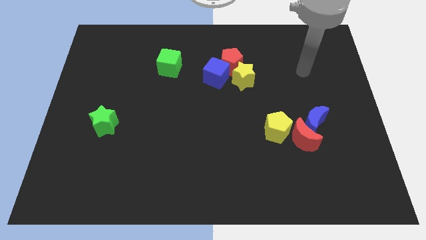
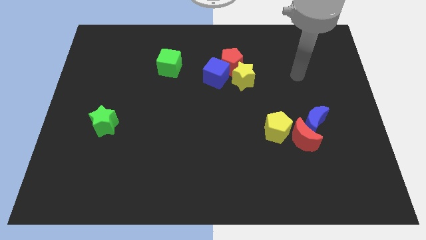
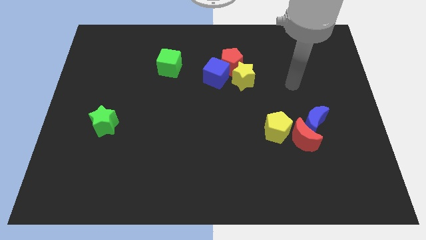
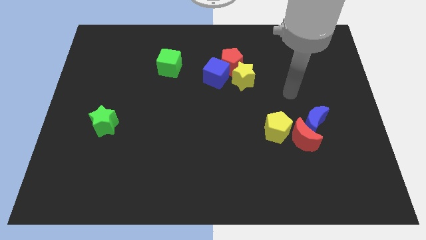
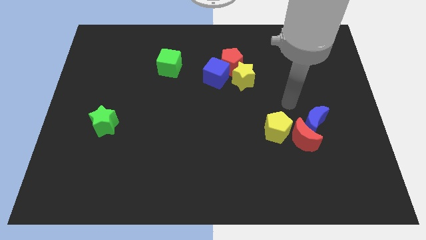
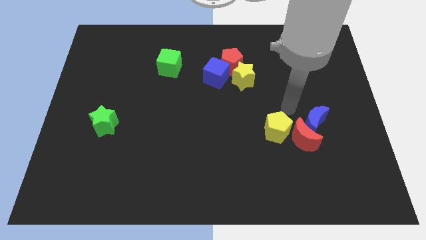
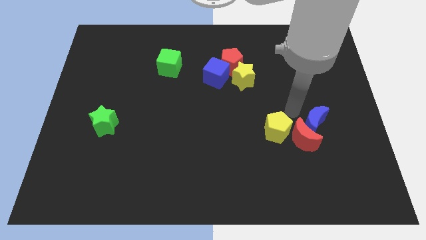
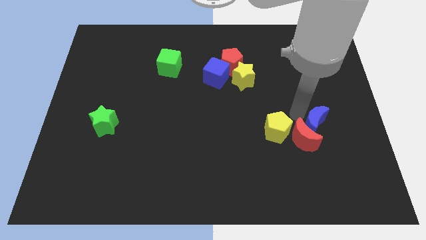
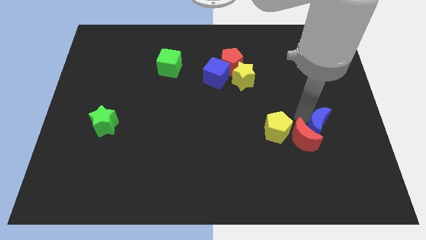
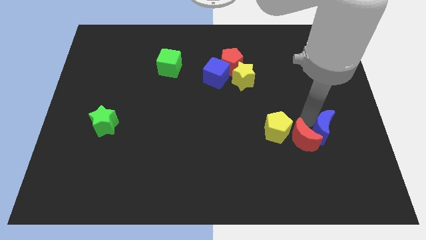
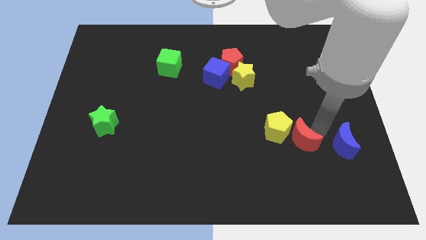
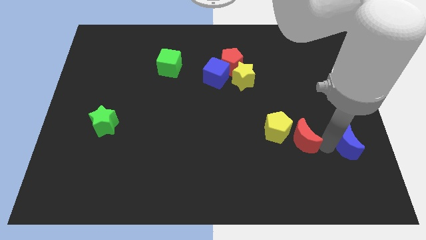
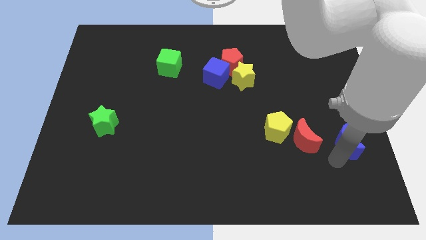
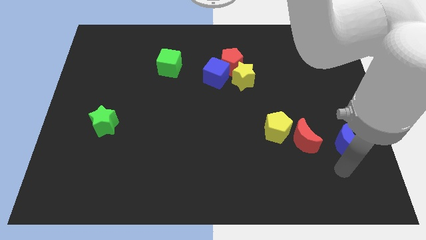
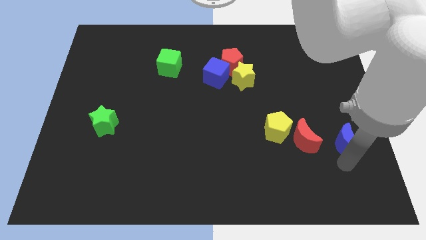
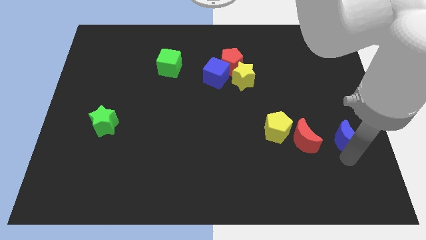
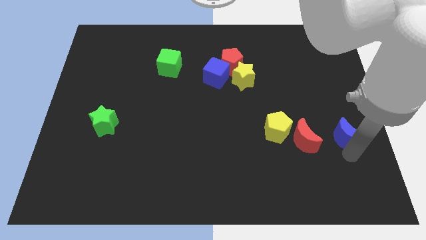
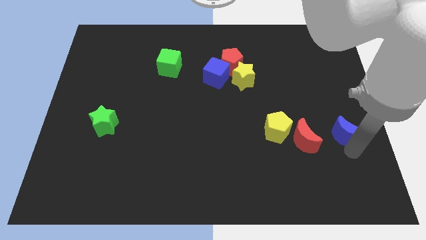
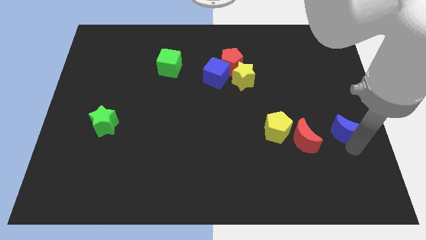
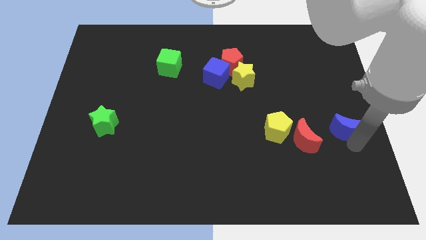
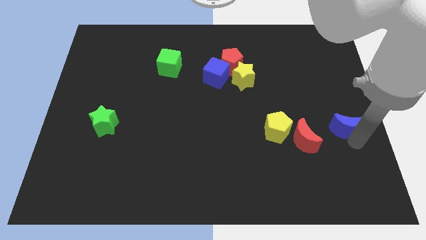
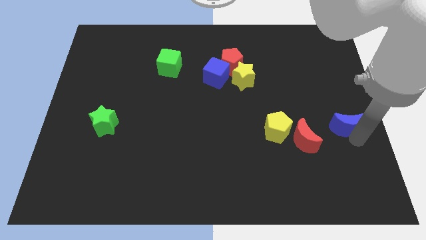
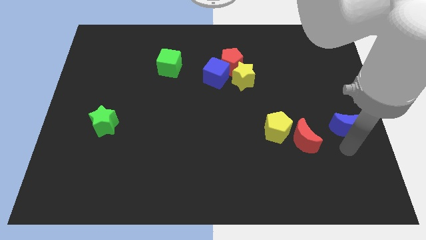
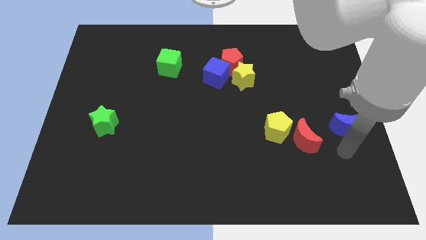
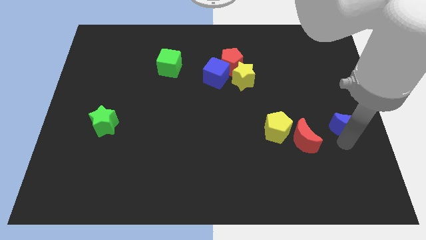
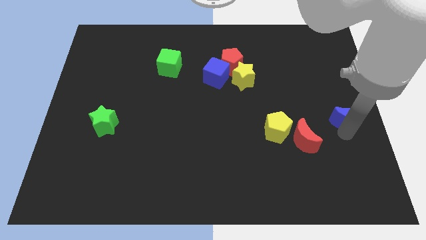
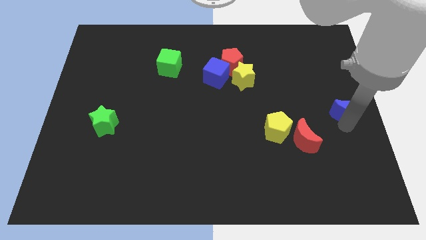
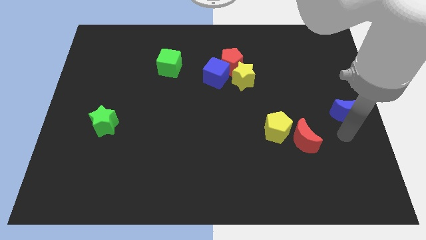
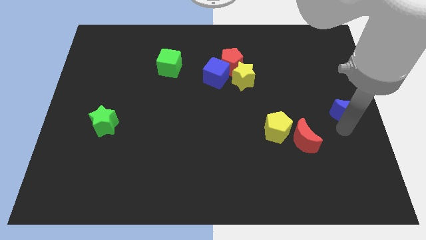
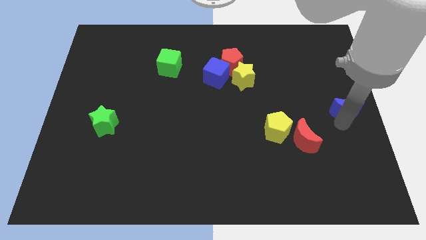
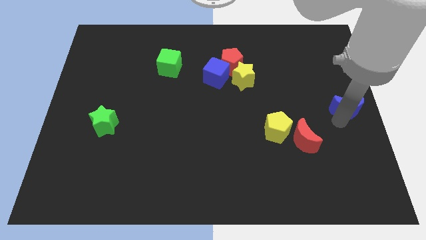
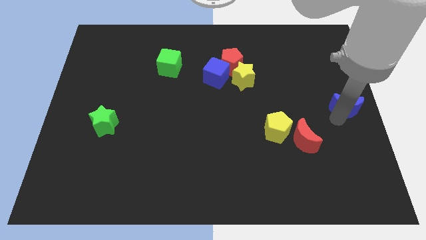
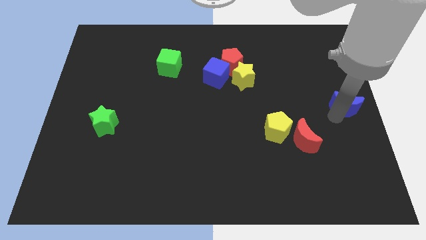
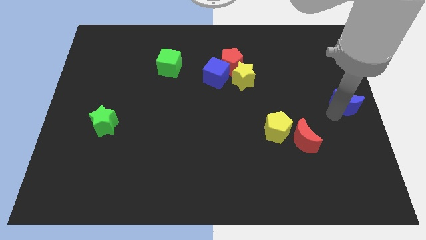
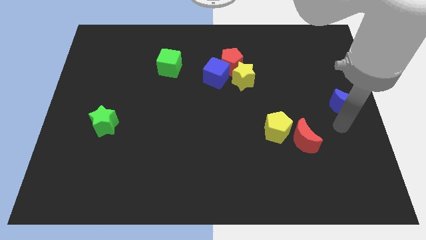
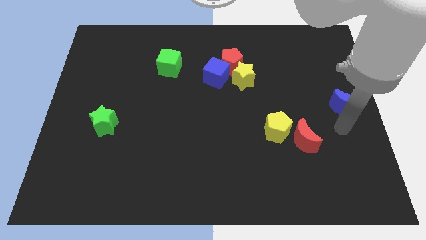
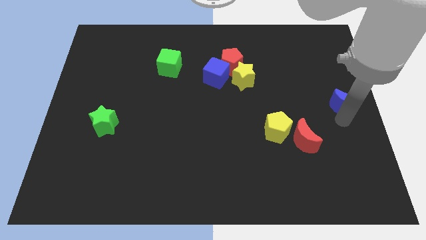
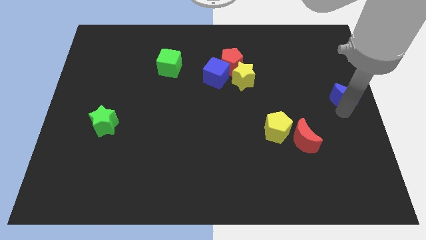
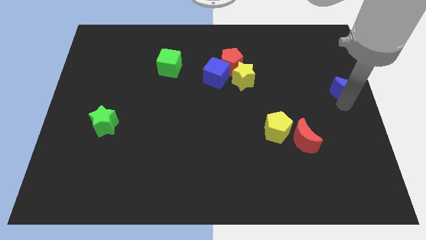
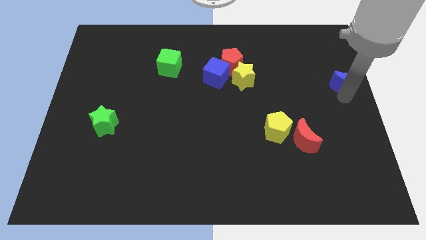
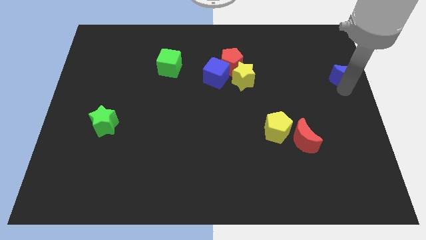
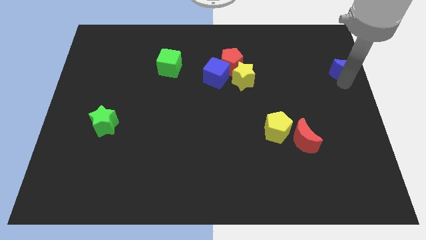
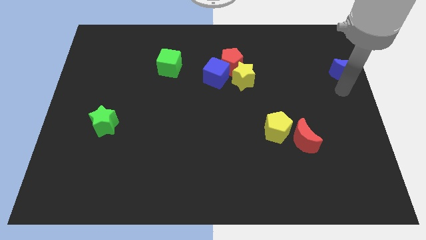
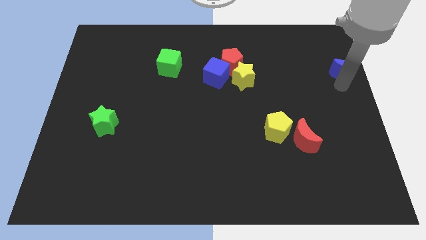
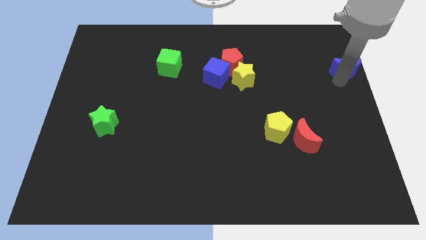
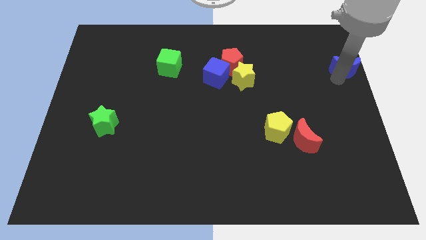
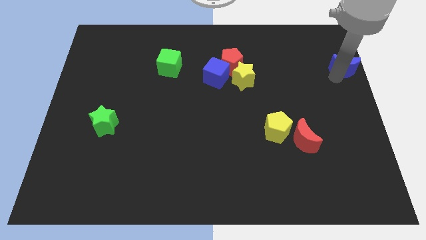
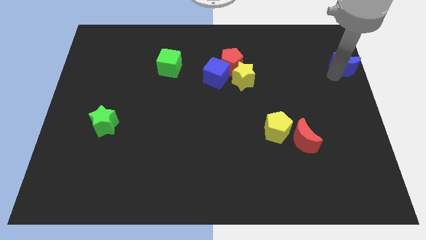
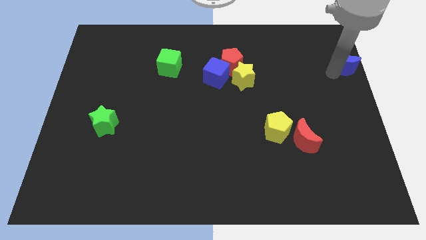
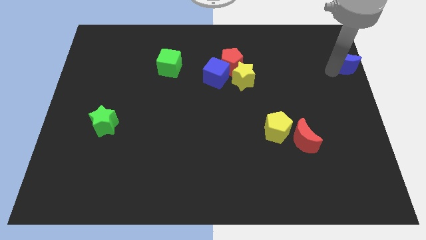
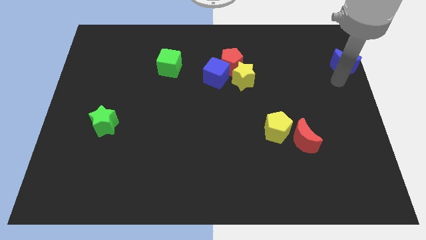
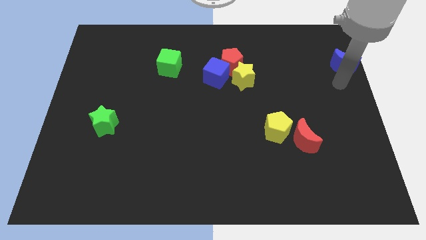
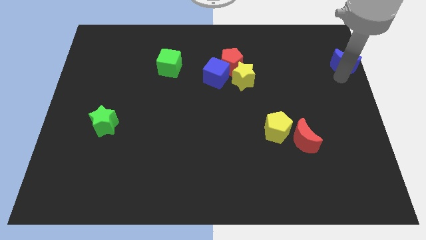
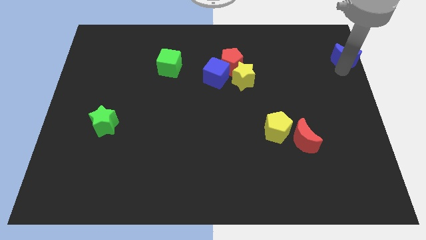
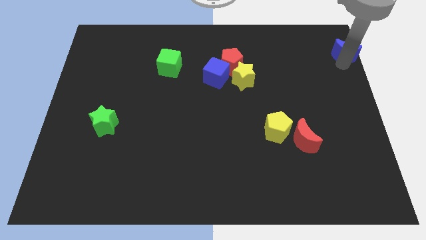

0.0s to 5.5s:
move the blue moon to the top right of the board

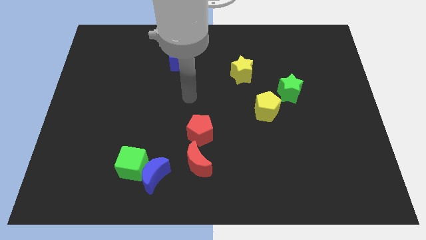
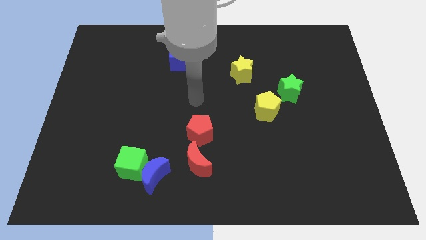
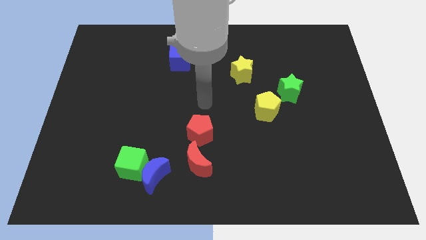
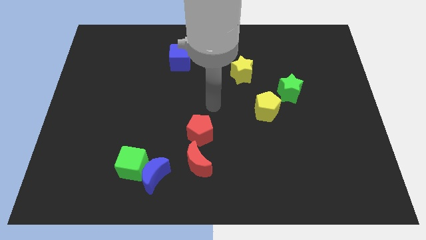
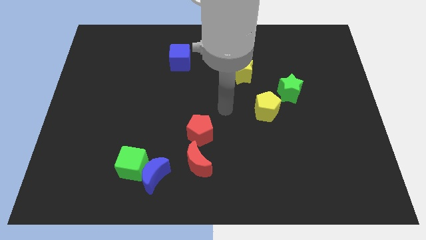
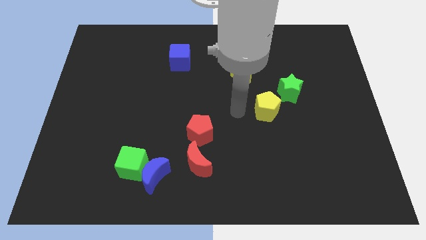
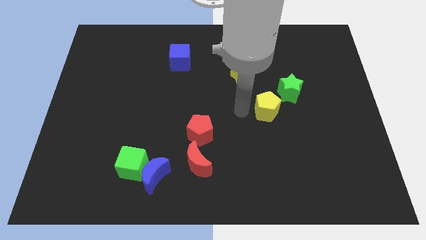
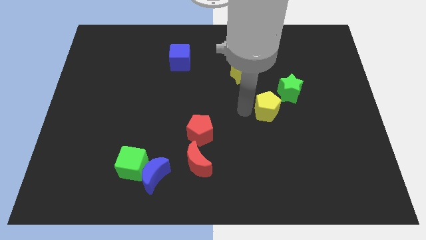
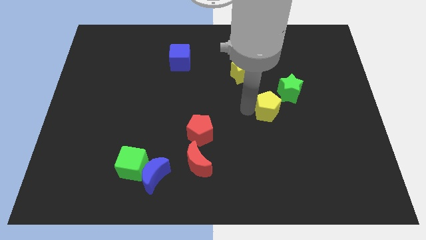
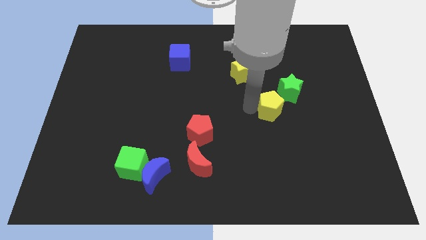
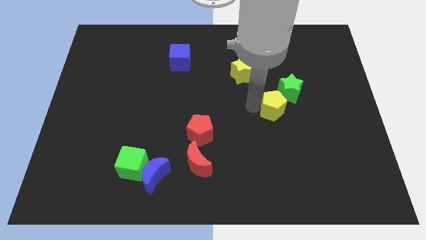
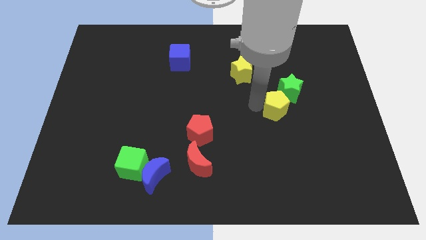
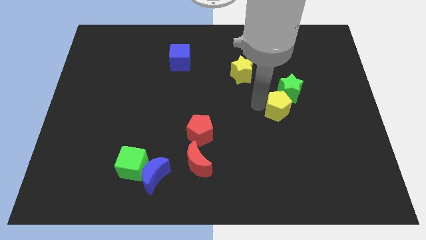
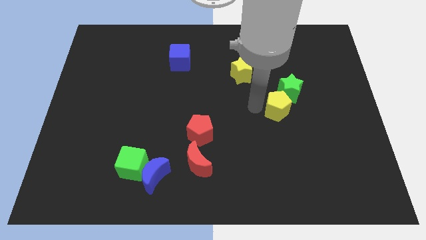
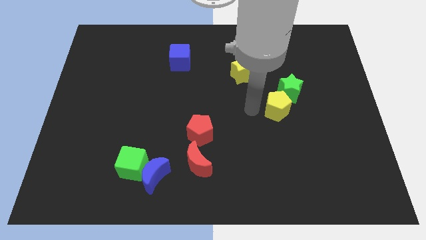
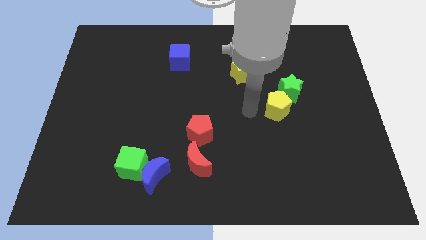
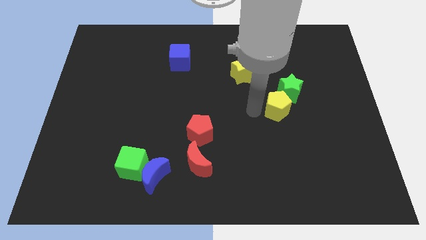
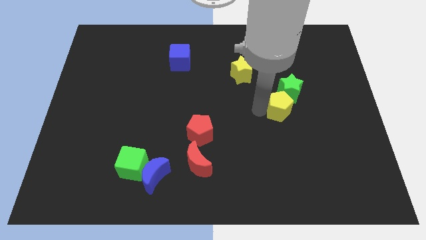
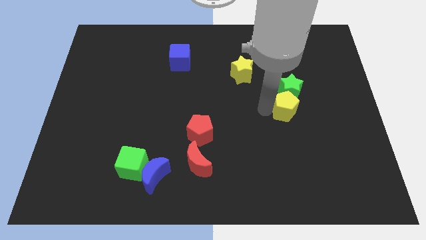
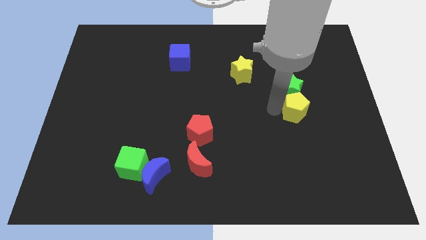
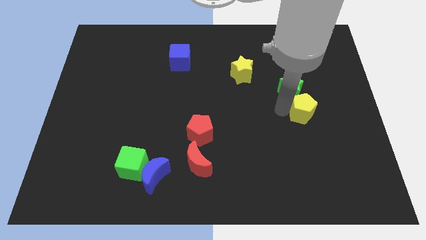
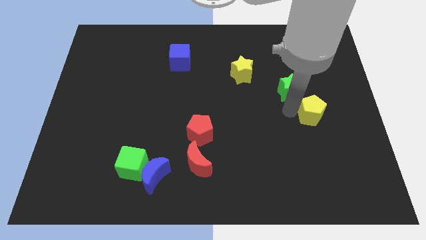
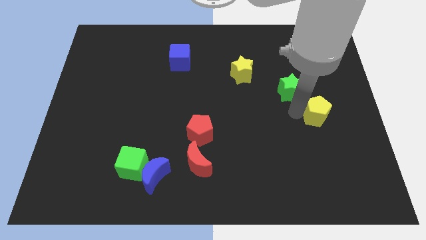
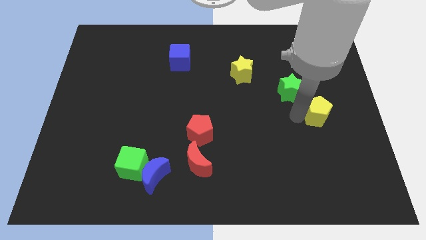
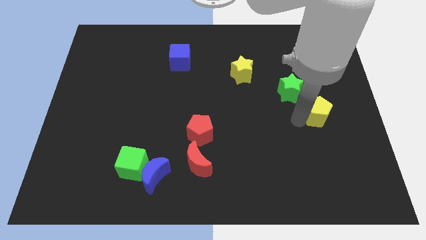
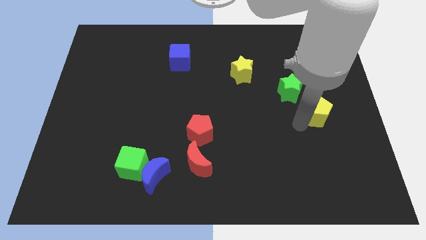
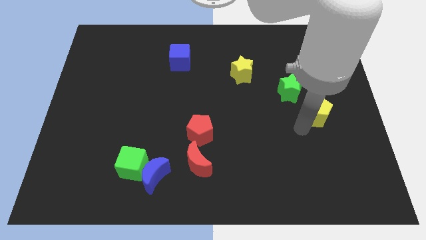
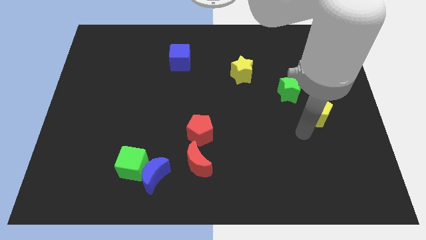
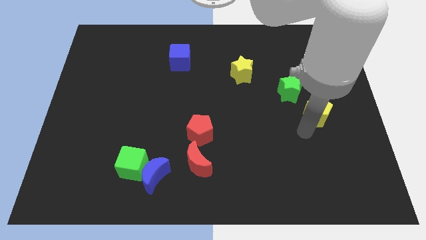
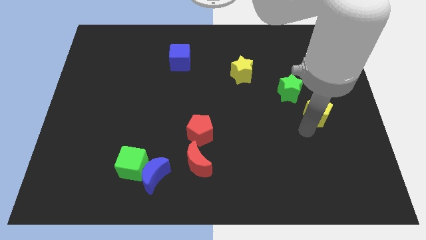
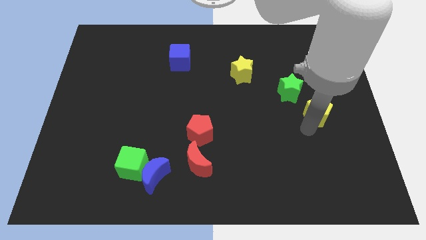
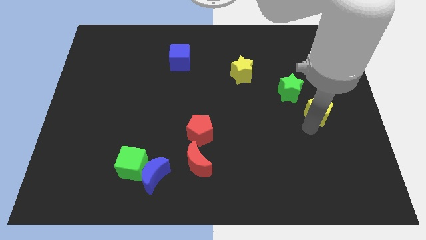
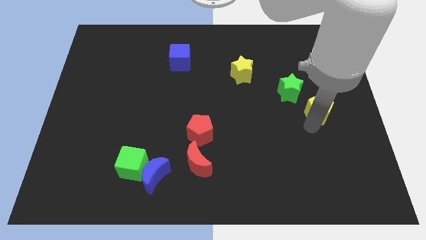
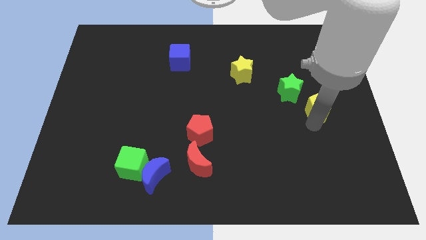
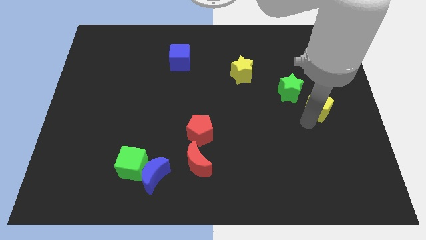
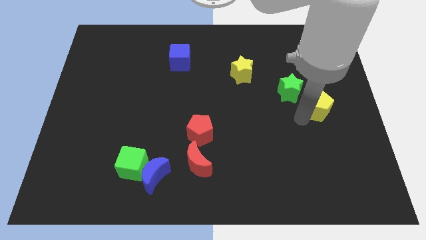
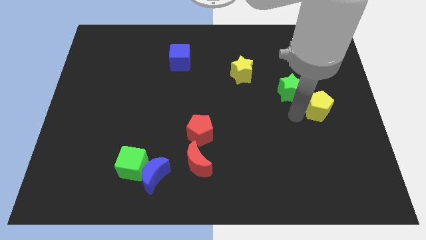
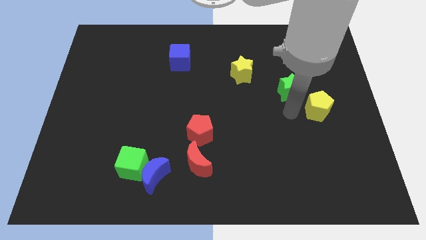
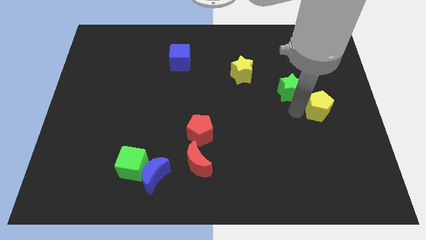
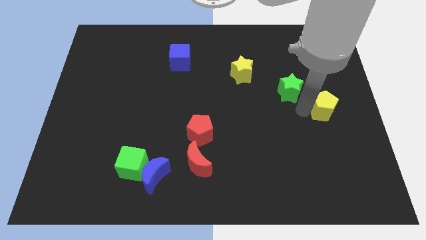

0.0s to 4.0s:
slide the yellow pentagon to the center right
